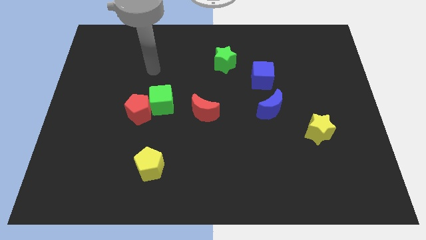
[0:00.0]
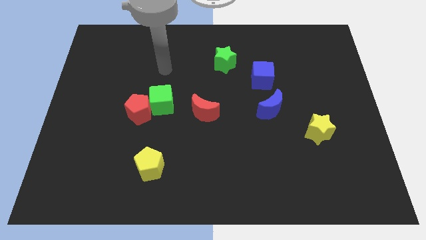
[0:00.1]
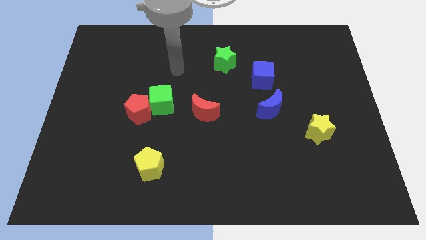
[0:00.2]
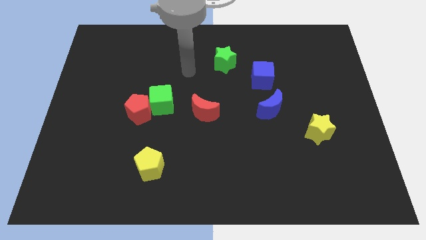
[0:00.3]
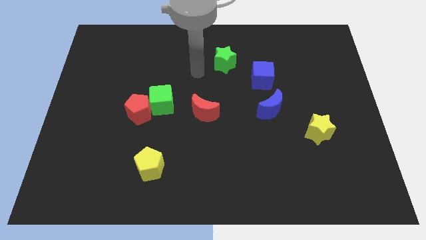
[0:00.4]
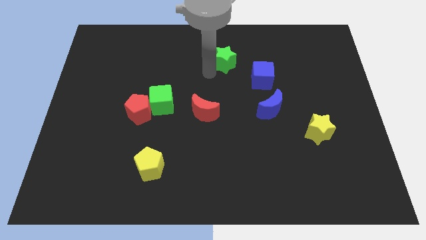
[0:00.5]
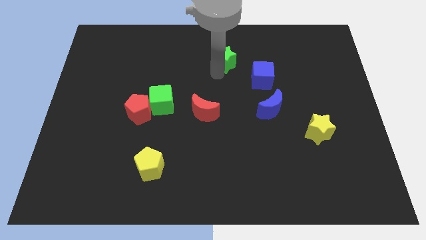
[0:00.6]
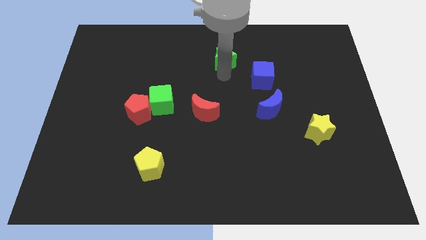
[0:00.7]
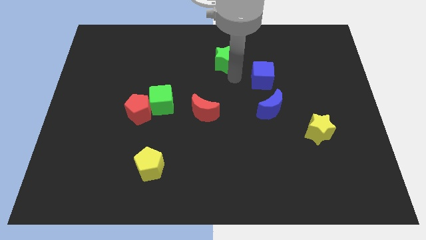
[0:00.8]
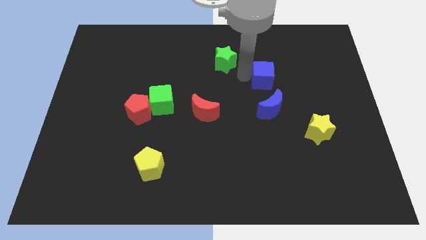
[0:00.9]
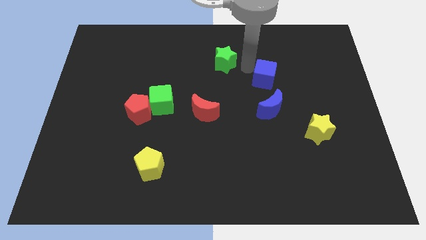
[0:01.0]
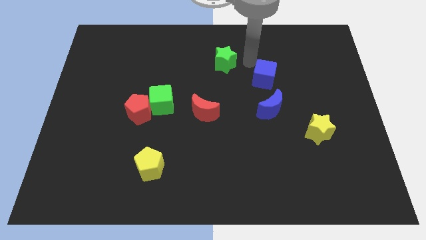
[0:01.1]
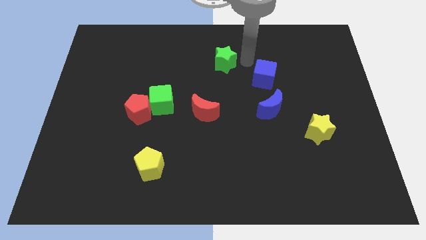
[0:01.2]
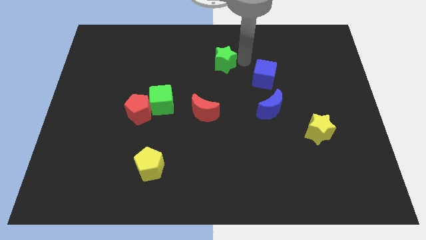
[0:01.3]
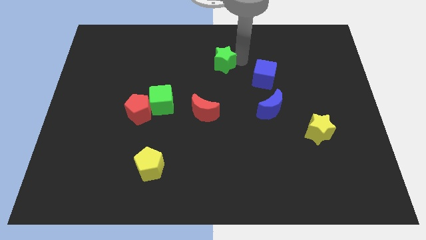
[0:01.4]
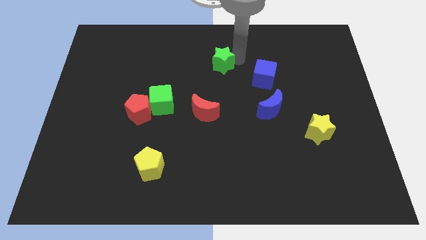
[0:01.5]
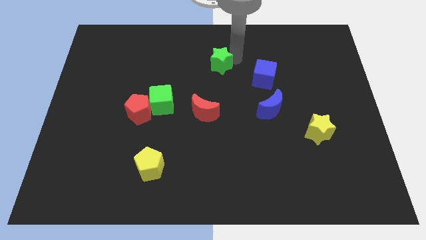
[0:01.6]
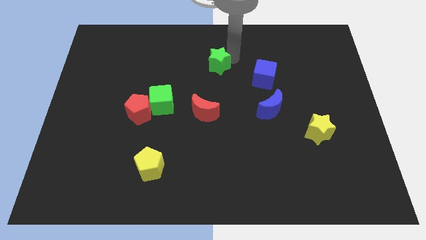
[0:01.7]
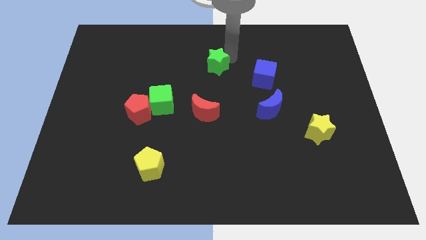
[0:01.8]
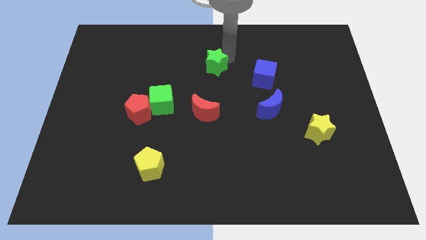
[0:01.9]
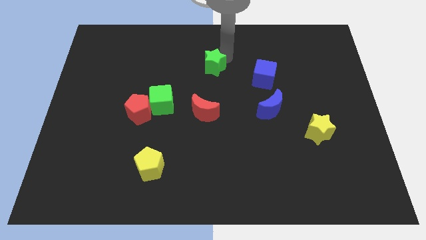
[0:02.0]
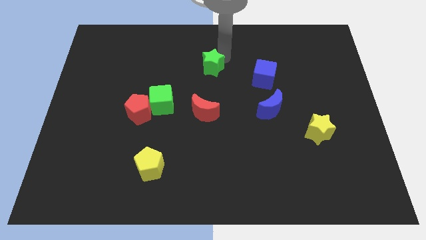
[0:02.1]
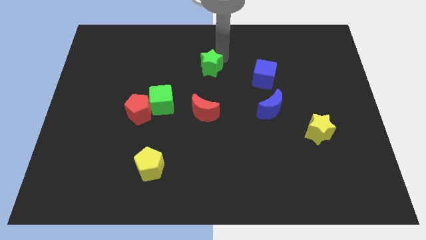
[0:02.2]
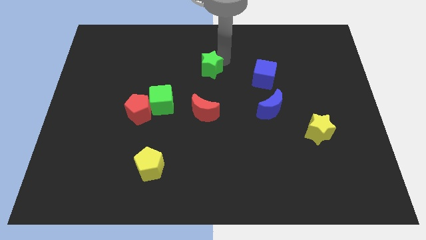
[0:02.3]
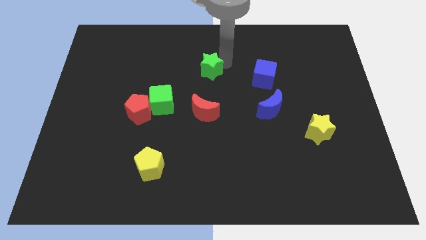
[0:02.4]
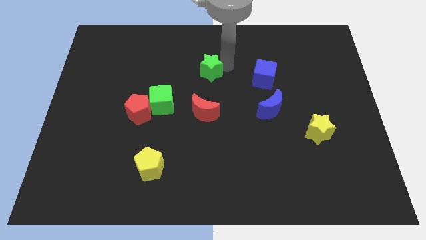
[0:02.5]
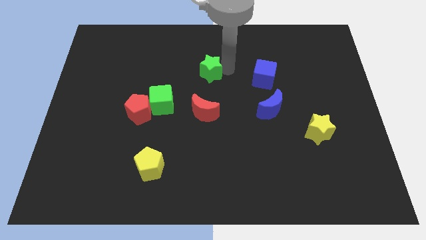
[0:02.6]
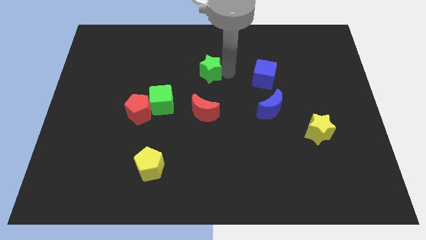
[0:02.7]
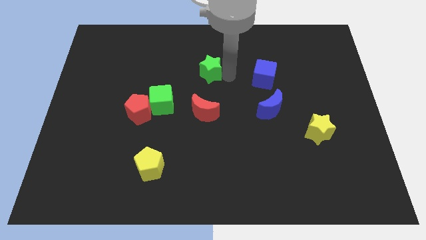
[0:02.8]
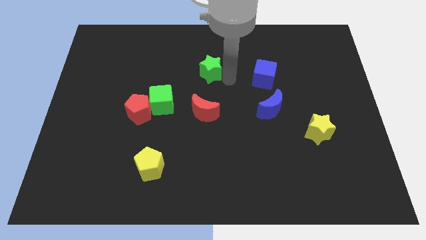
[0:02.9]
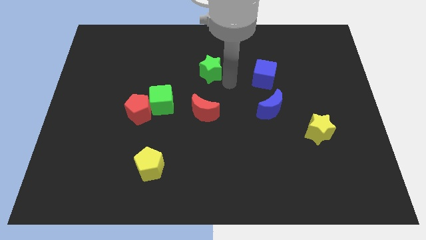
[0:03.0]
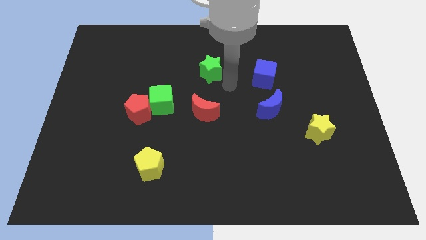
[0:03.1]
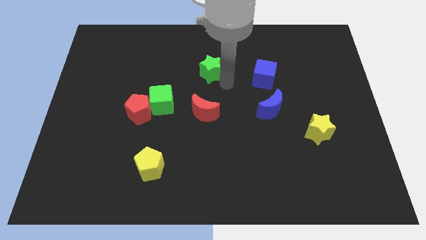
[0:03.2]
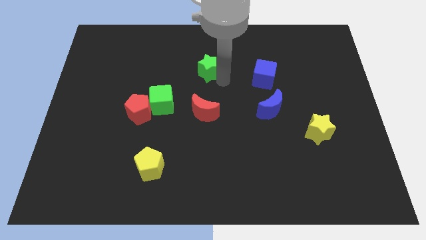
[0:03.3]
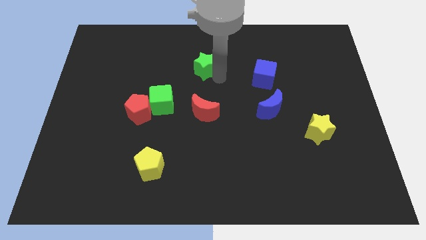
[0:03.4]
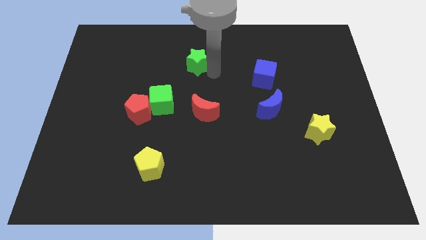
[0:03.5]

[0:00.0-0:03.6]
slightly slide the green star to the left

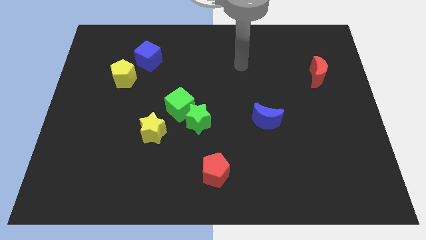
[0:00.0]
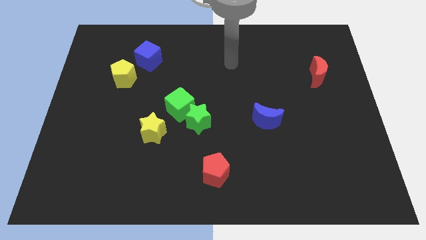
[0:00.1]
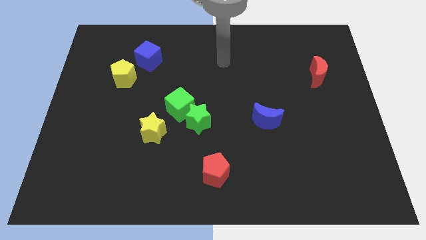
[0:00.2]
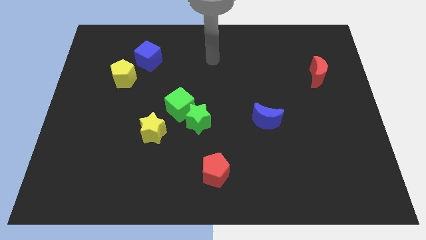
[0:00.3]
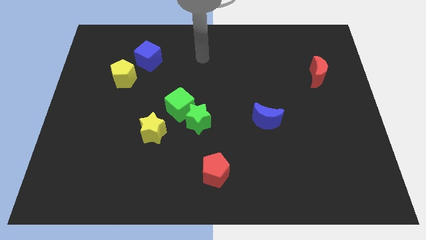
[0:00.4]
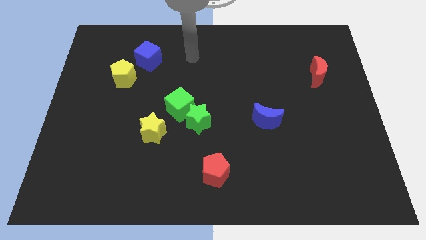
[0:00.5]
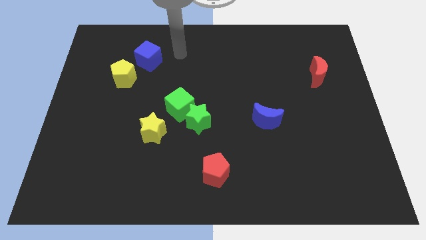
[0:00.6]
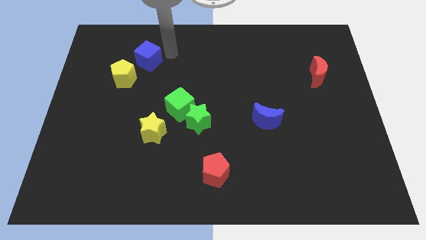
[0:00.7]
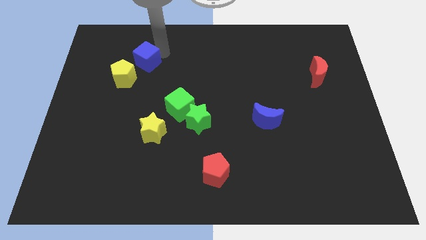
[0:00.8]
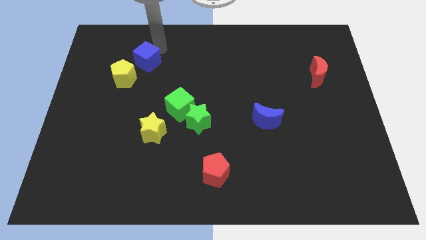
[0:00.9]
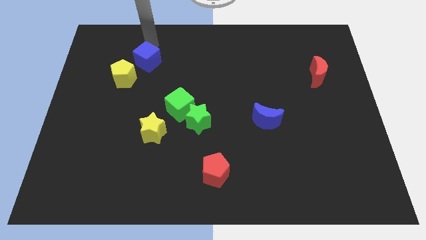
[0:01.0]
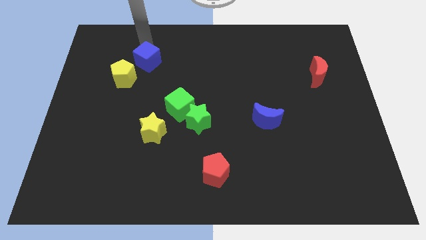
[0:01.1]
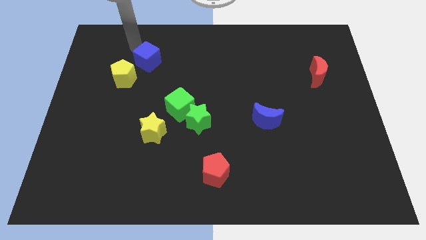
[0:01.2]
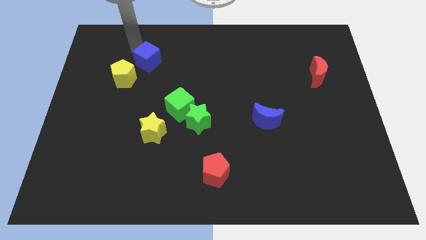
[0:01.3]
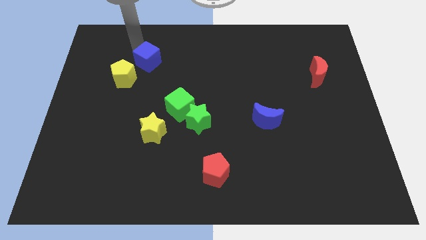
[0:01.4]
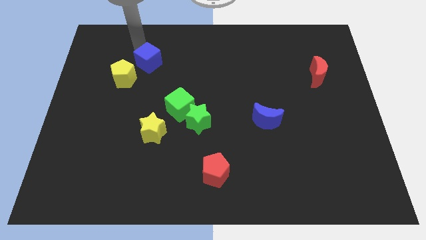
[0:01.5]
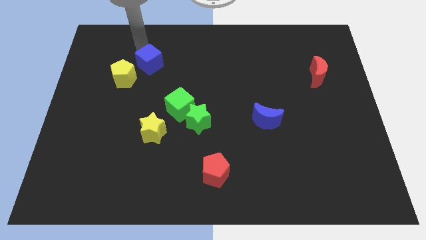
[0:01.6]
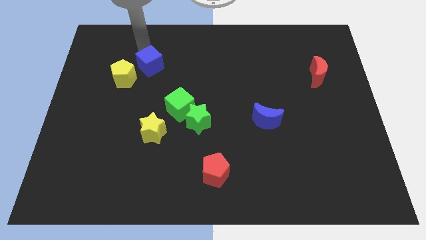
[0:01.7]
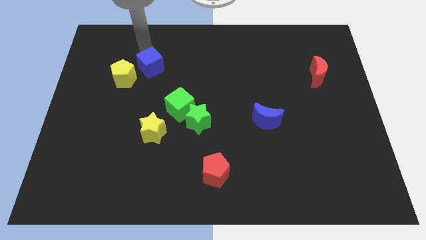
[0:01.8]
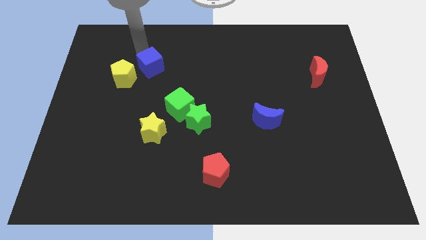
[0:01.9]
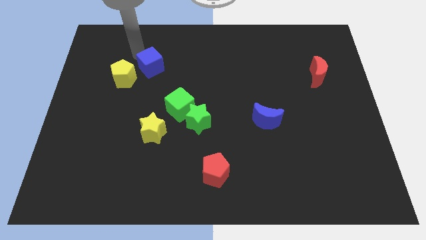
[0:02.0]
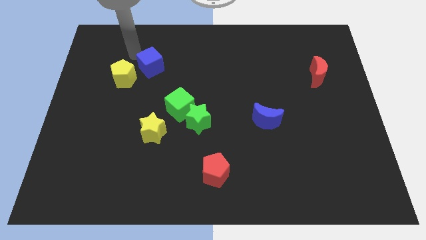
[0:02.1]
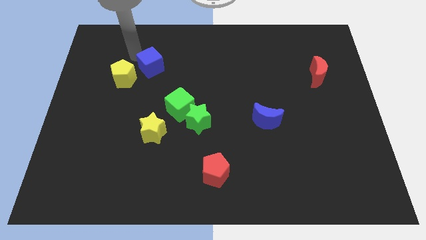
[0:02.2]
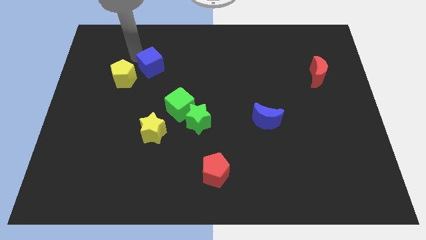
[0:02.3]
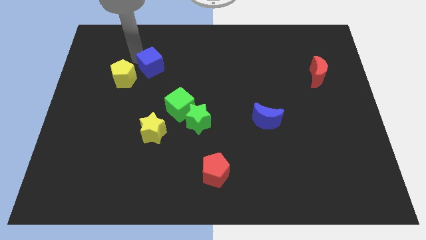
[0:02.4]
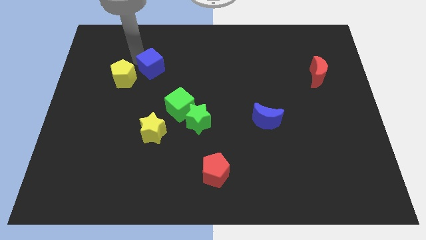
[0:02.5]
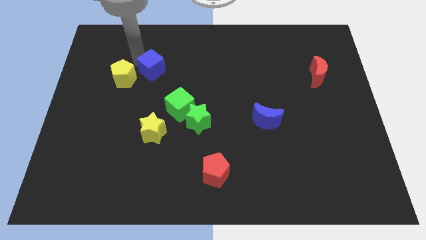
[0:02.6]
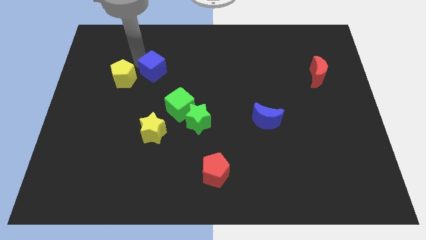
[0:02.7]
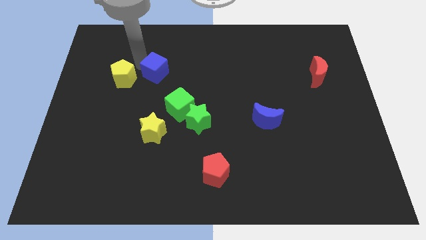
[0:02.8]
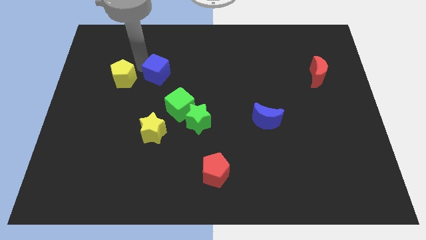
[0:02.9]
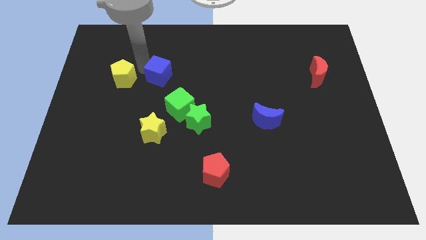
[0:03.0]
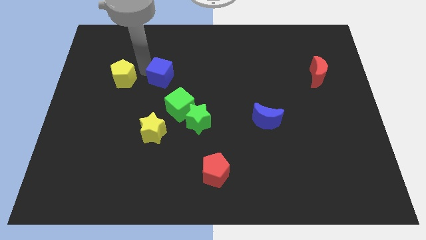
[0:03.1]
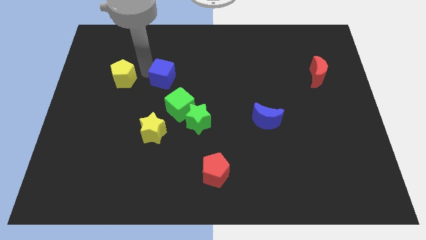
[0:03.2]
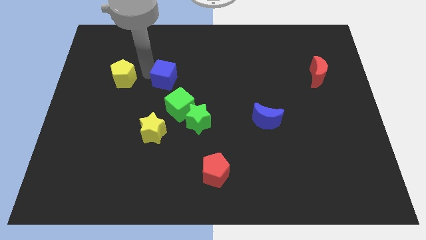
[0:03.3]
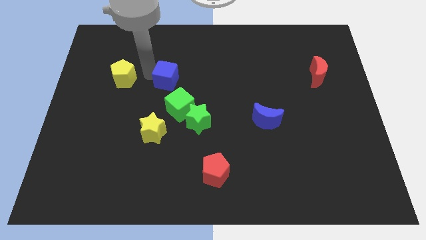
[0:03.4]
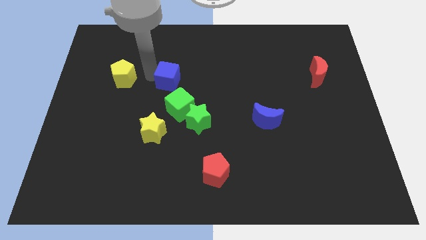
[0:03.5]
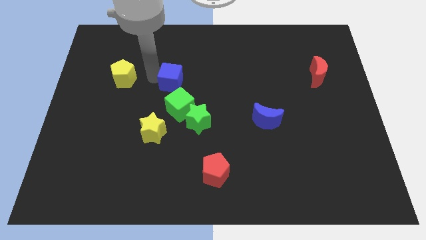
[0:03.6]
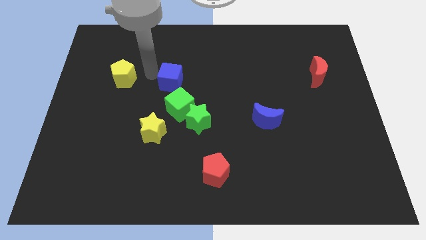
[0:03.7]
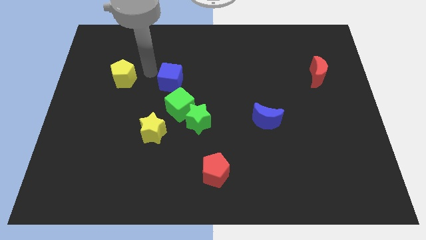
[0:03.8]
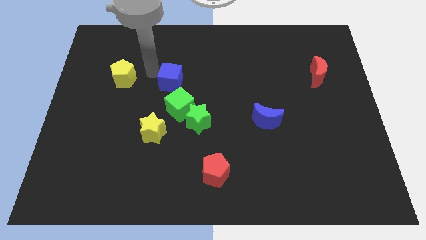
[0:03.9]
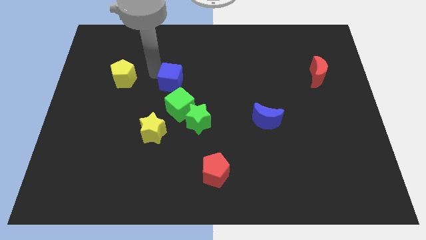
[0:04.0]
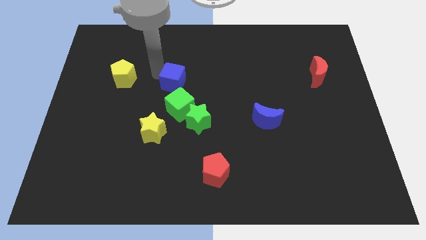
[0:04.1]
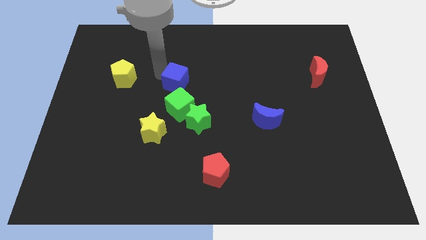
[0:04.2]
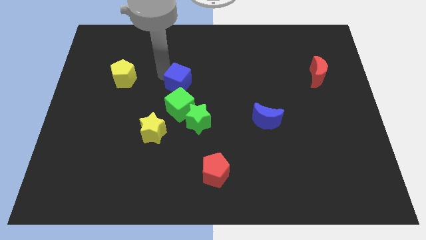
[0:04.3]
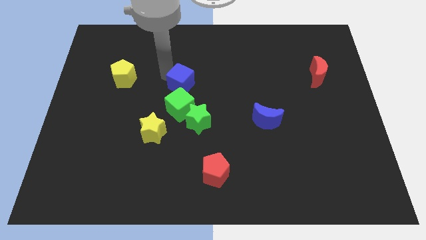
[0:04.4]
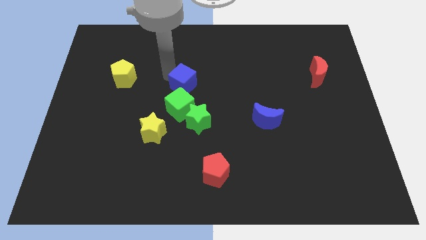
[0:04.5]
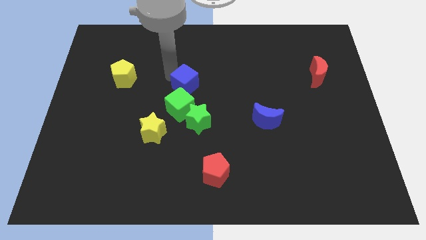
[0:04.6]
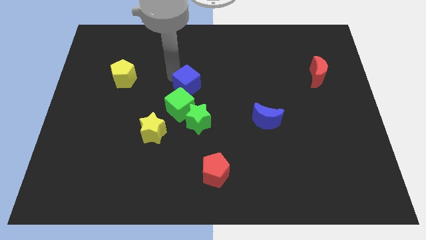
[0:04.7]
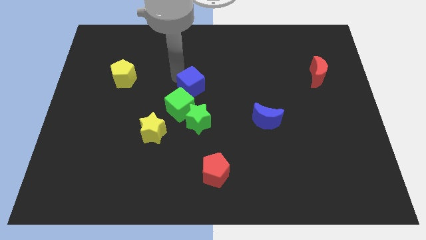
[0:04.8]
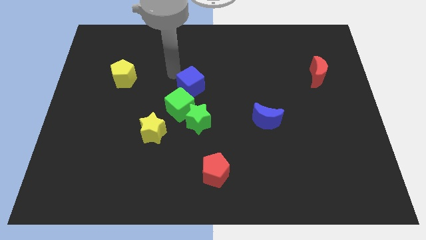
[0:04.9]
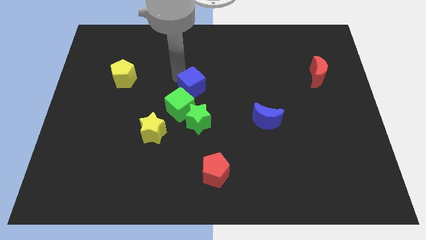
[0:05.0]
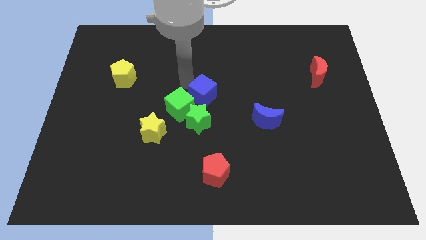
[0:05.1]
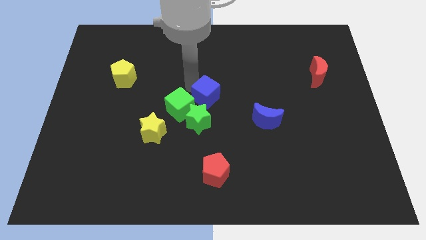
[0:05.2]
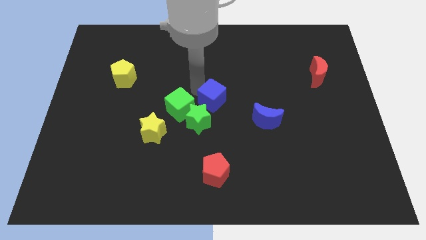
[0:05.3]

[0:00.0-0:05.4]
push the blue cube down and then right
